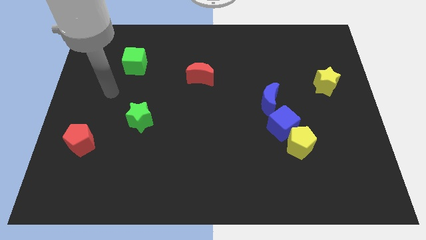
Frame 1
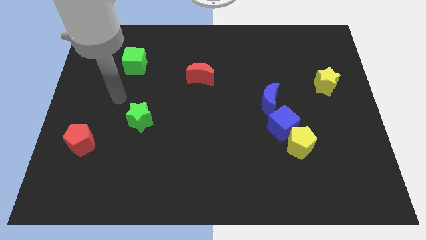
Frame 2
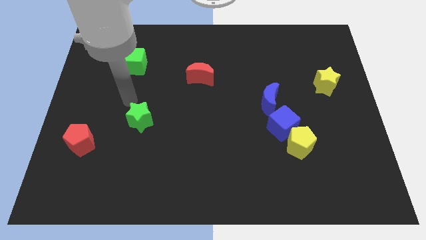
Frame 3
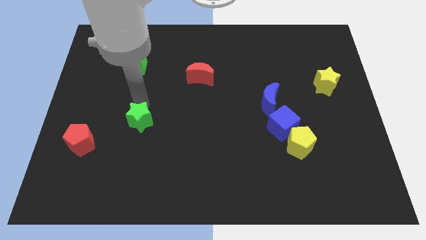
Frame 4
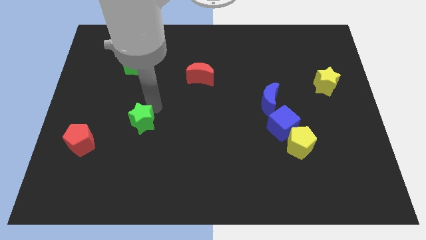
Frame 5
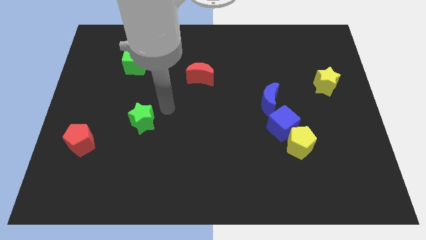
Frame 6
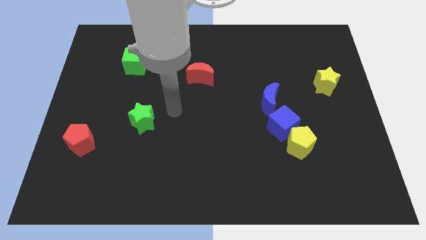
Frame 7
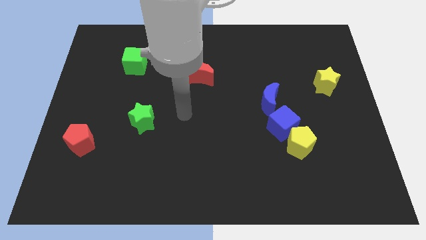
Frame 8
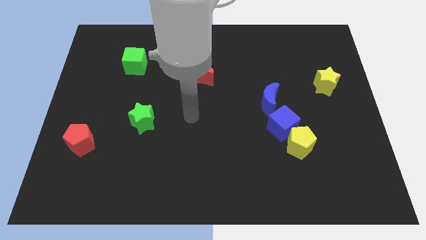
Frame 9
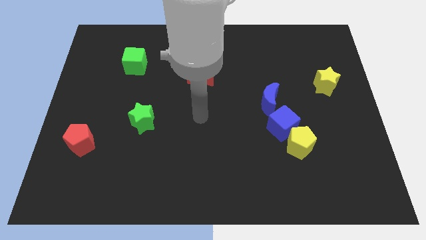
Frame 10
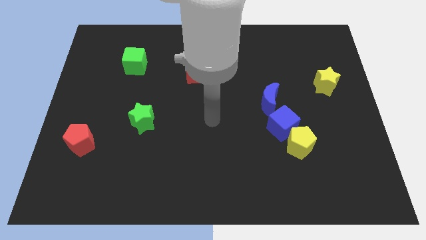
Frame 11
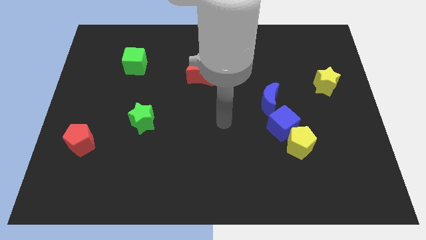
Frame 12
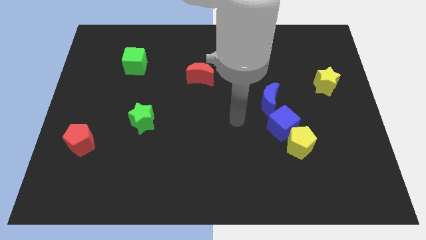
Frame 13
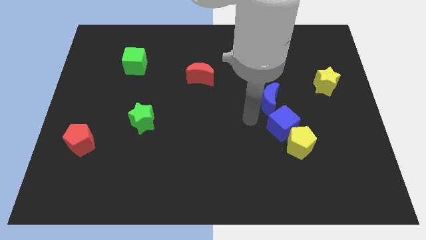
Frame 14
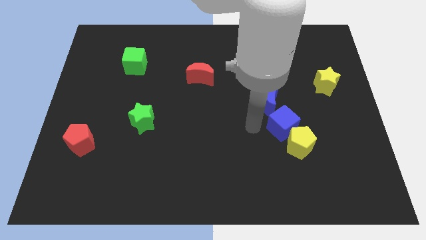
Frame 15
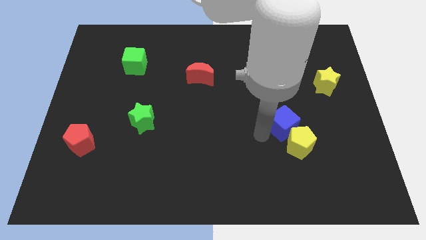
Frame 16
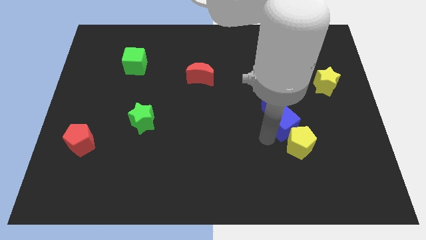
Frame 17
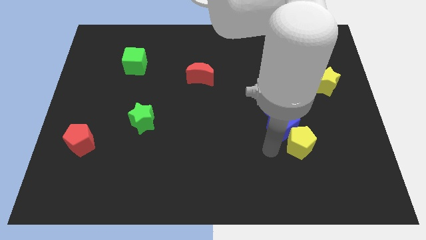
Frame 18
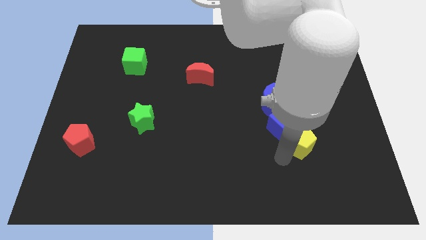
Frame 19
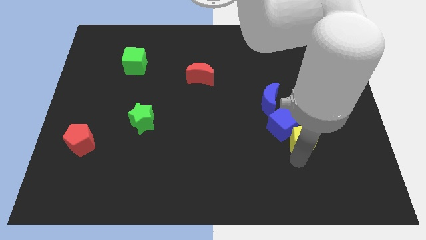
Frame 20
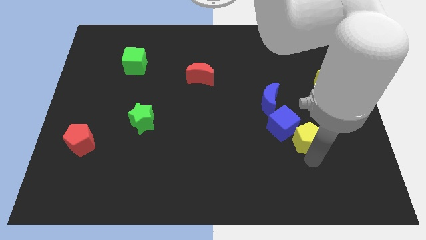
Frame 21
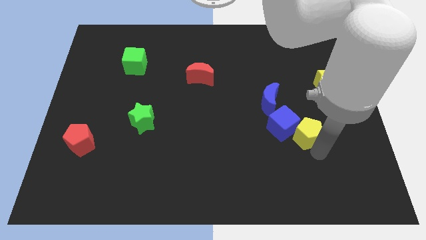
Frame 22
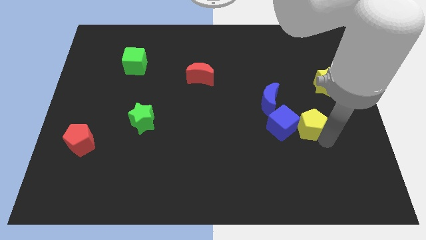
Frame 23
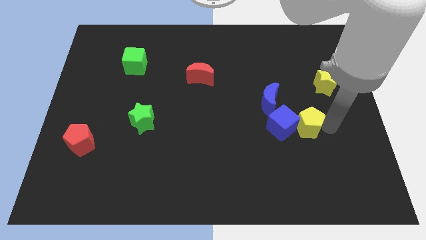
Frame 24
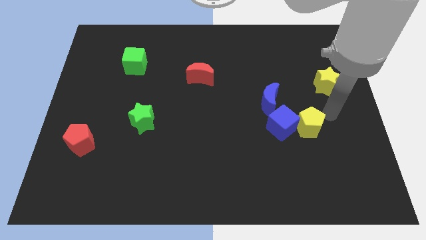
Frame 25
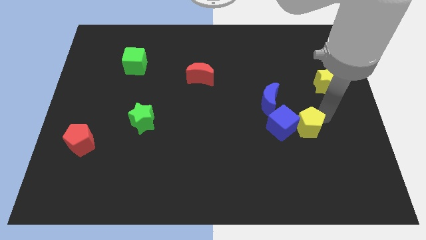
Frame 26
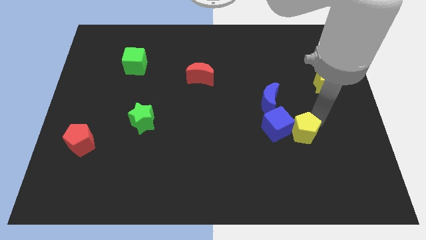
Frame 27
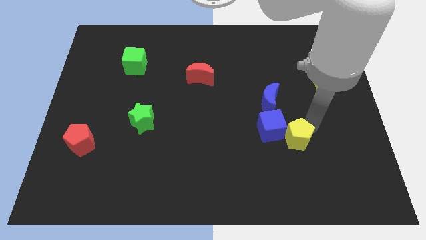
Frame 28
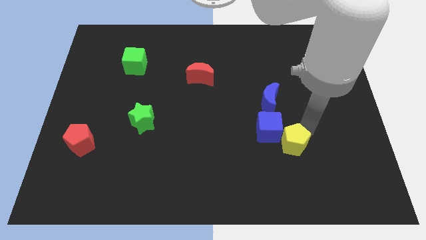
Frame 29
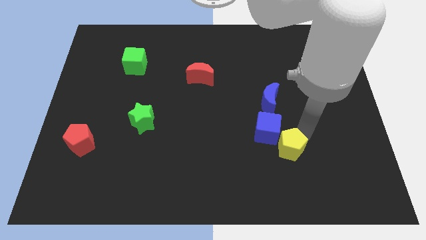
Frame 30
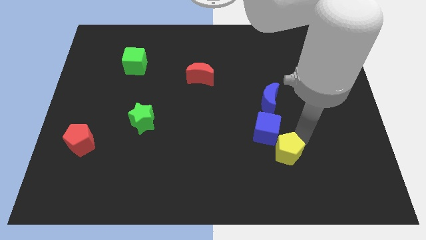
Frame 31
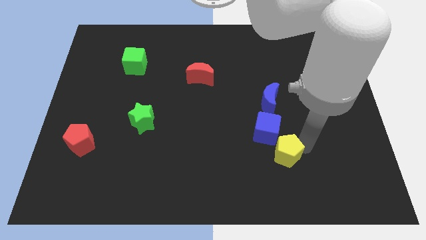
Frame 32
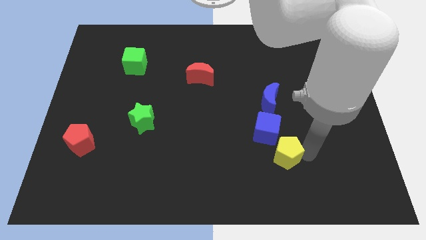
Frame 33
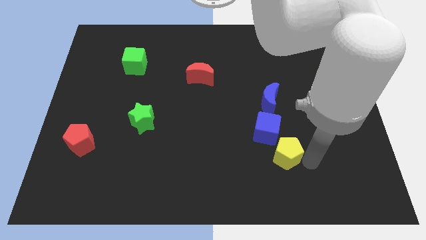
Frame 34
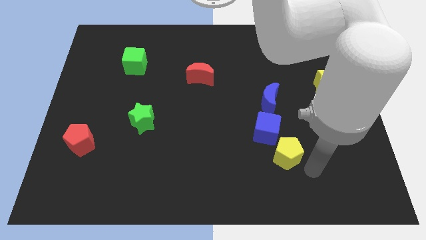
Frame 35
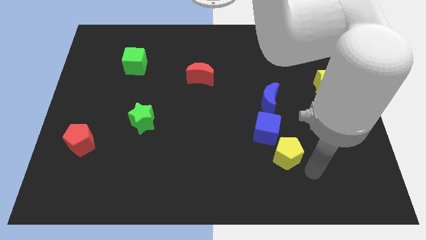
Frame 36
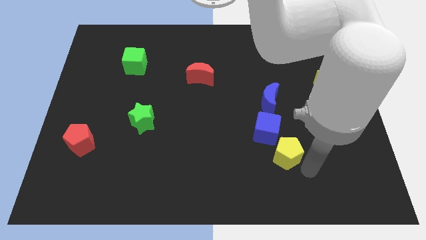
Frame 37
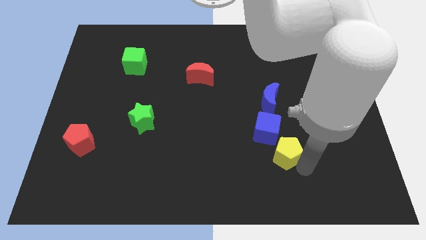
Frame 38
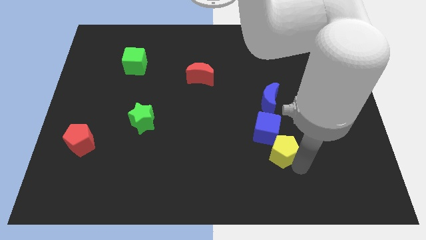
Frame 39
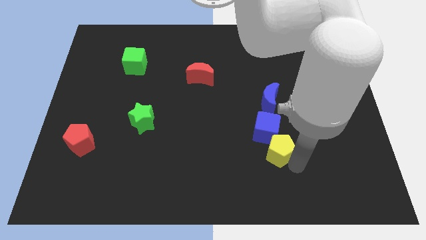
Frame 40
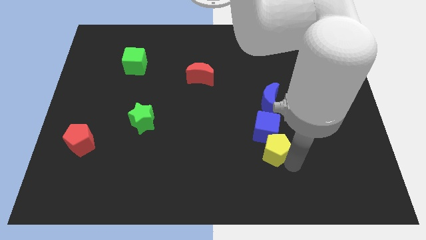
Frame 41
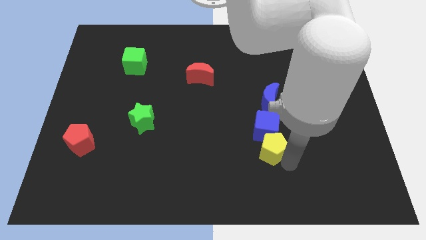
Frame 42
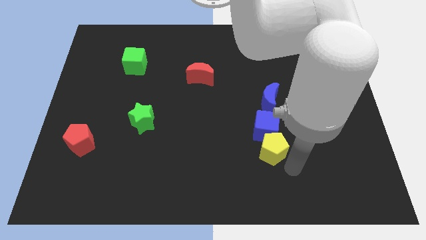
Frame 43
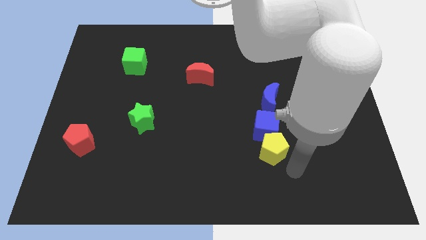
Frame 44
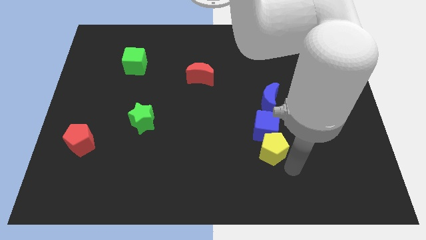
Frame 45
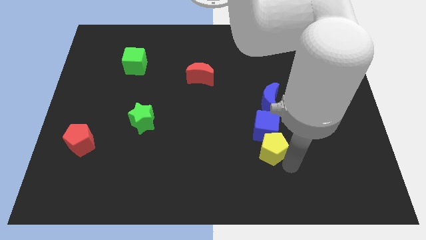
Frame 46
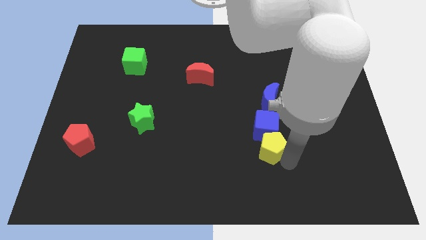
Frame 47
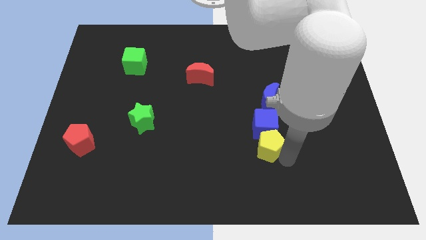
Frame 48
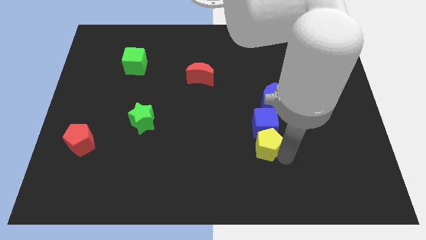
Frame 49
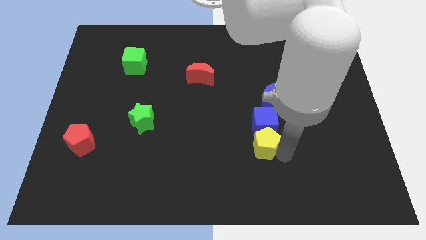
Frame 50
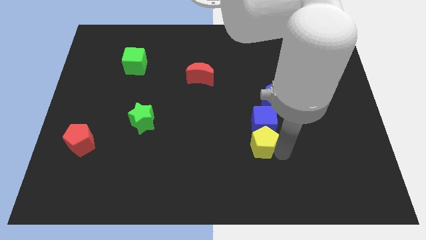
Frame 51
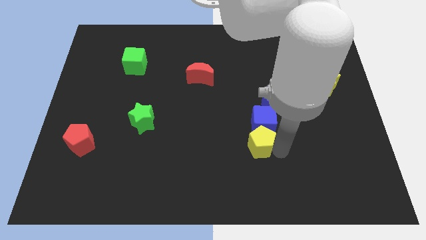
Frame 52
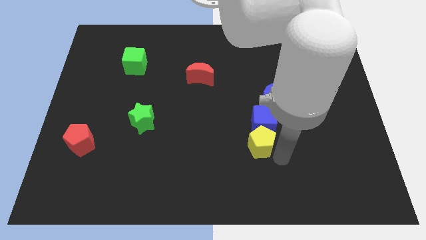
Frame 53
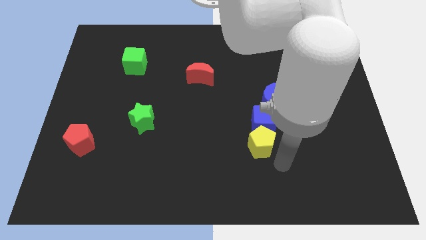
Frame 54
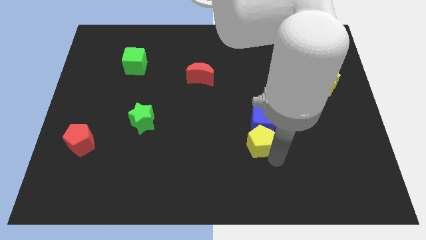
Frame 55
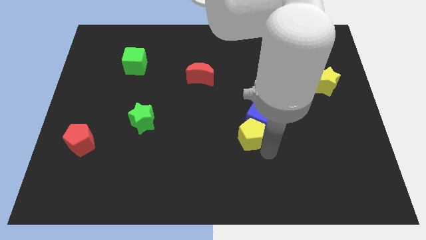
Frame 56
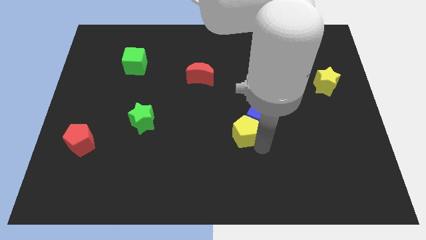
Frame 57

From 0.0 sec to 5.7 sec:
put the yellow pentagon to the middle of the board

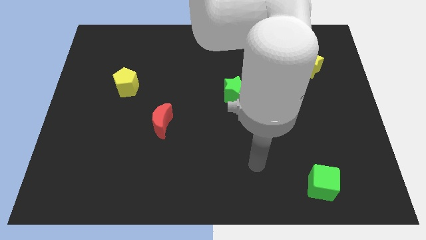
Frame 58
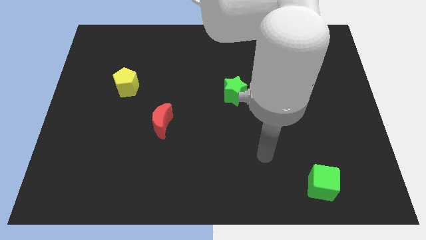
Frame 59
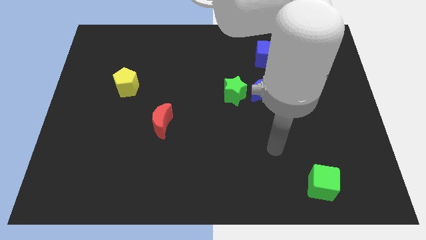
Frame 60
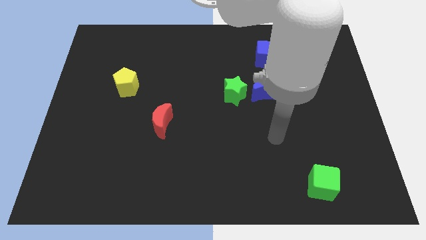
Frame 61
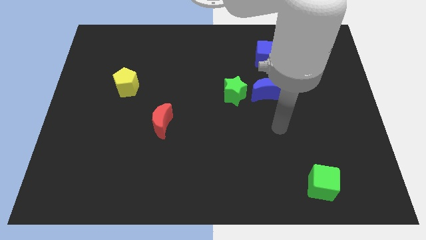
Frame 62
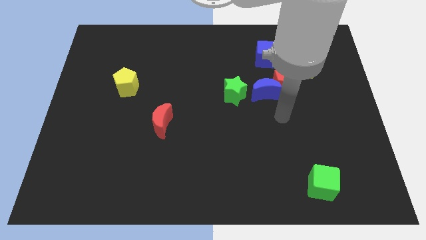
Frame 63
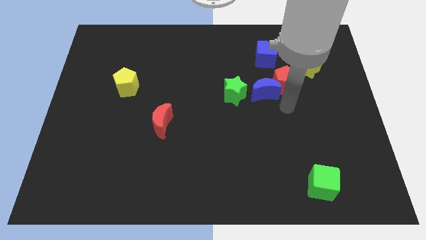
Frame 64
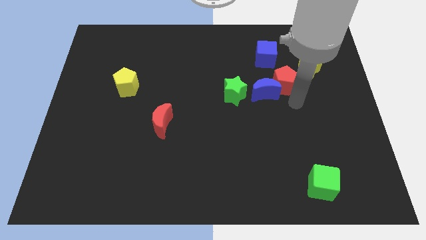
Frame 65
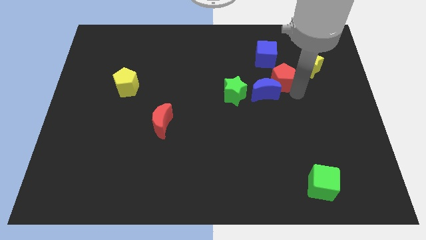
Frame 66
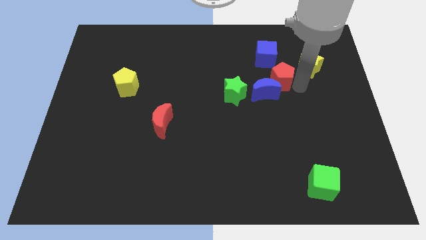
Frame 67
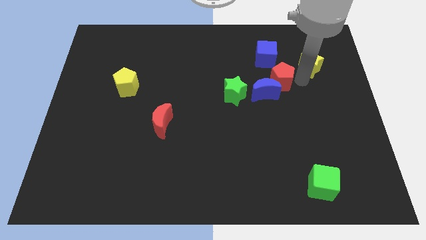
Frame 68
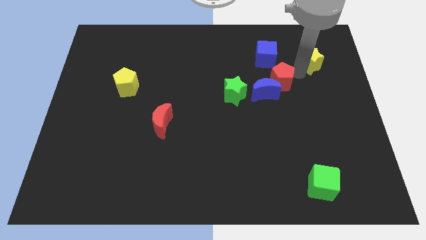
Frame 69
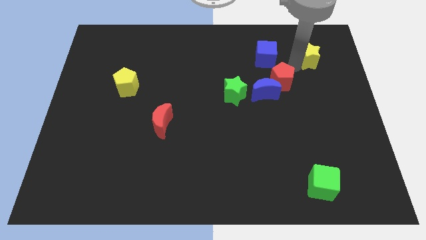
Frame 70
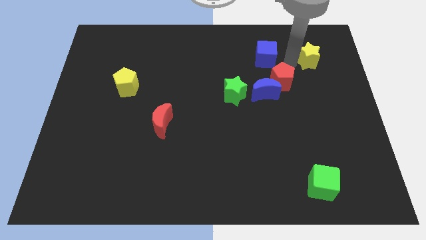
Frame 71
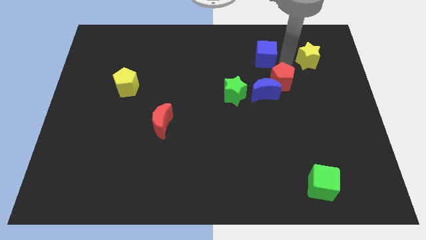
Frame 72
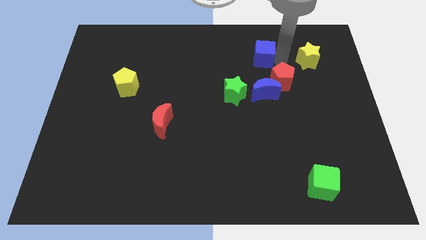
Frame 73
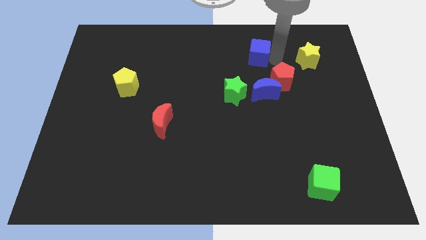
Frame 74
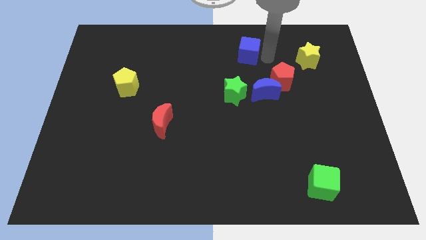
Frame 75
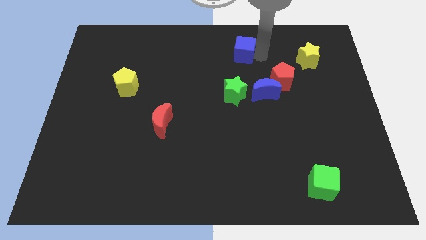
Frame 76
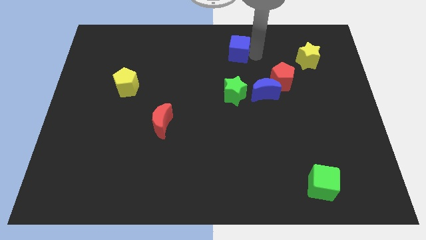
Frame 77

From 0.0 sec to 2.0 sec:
slide the blue cube to the top side
